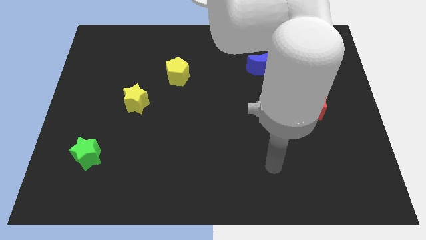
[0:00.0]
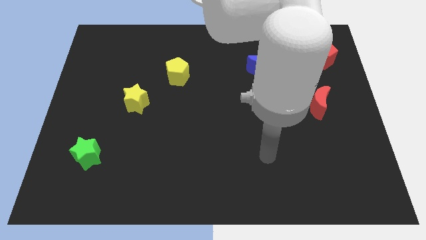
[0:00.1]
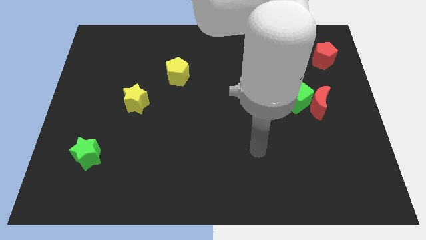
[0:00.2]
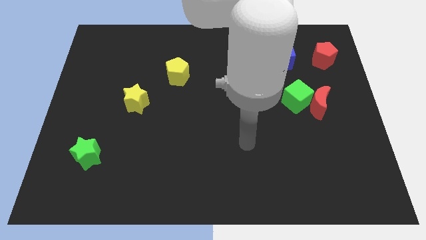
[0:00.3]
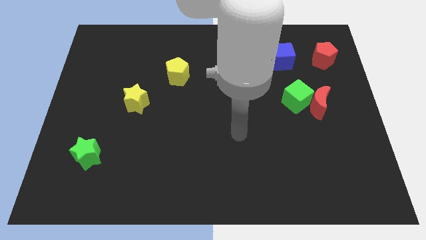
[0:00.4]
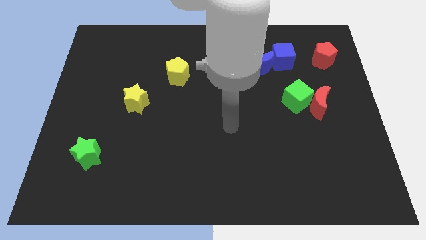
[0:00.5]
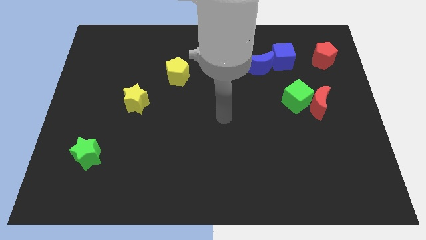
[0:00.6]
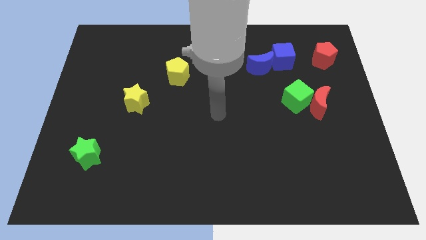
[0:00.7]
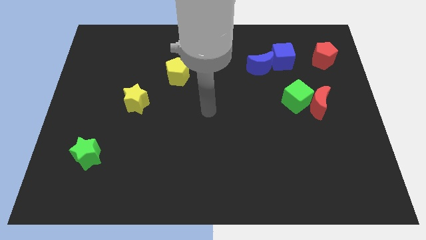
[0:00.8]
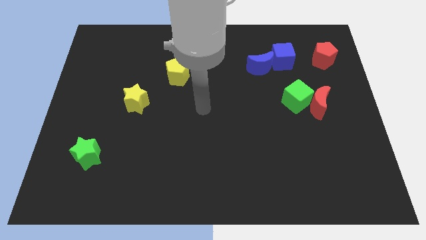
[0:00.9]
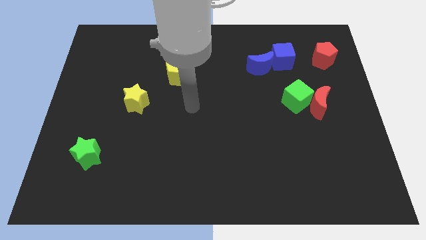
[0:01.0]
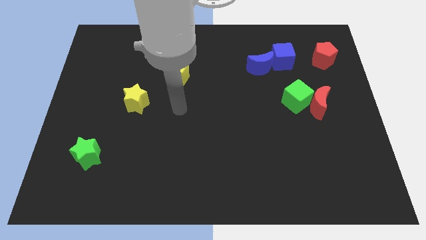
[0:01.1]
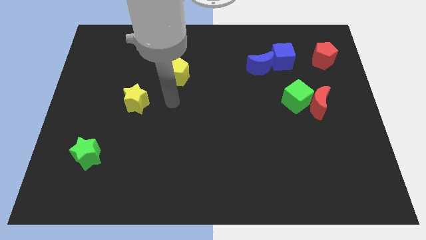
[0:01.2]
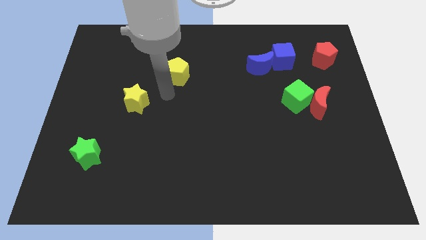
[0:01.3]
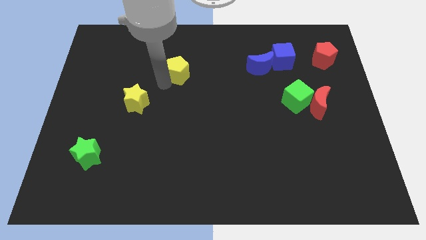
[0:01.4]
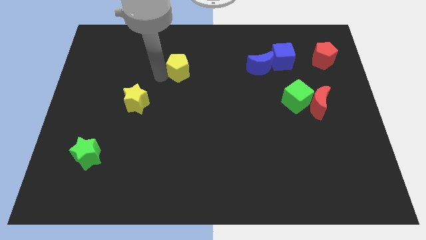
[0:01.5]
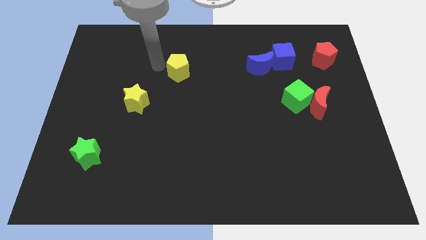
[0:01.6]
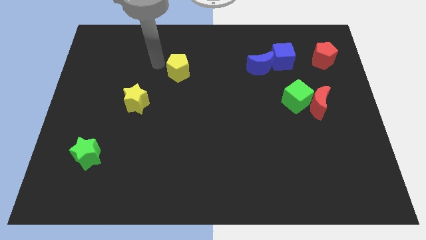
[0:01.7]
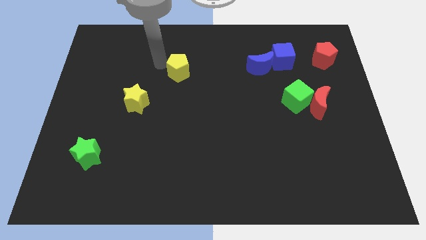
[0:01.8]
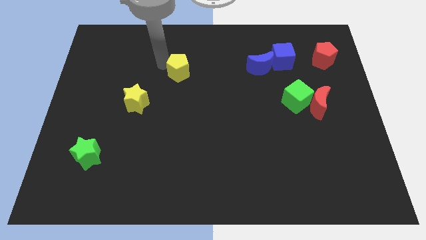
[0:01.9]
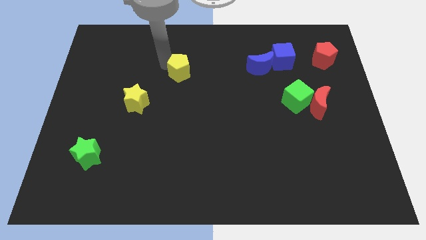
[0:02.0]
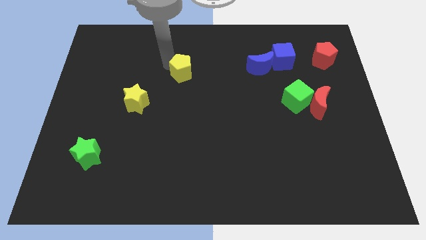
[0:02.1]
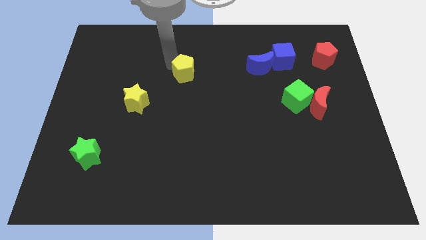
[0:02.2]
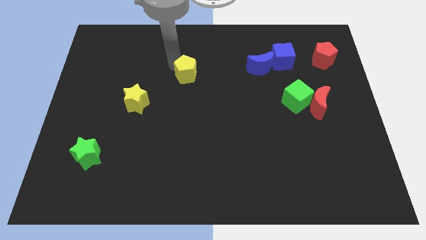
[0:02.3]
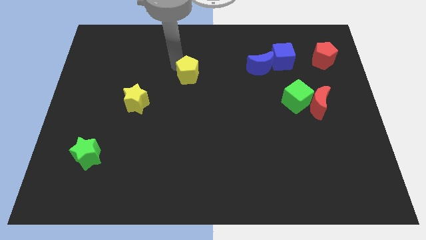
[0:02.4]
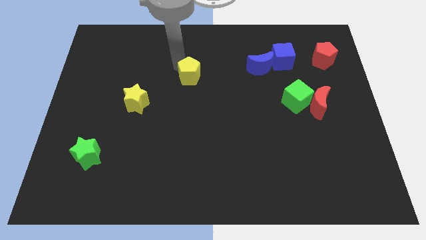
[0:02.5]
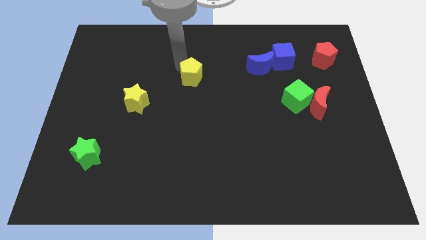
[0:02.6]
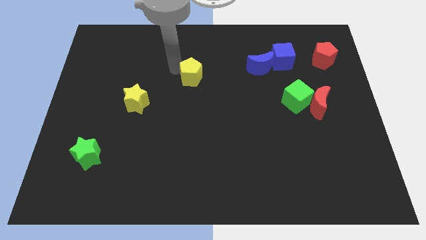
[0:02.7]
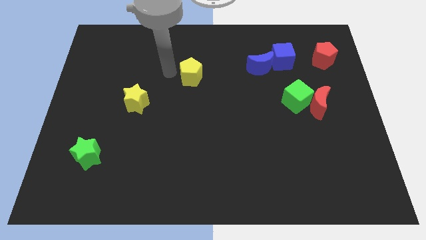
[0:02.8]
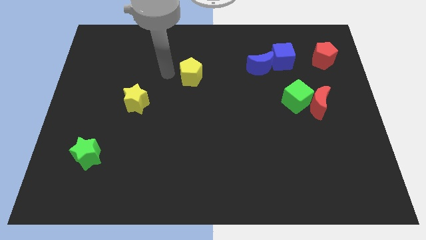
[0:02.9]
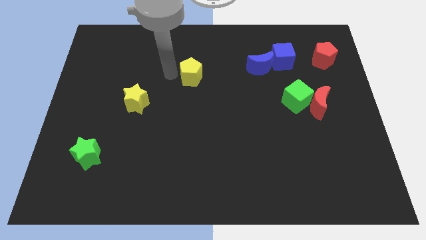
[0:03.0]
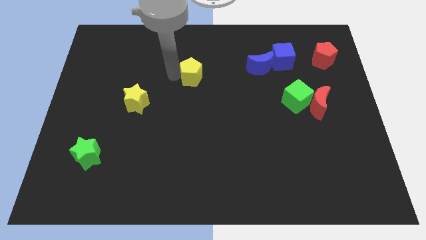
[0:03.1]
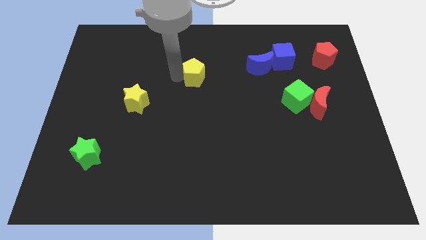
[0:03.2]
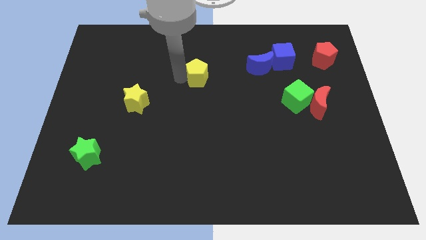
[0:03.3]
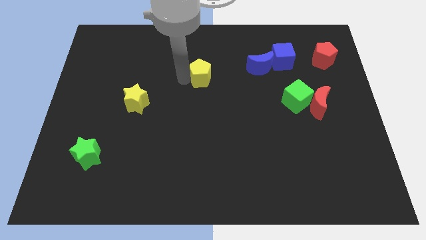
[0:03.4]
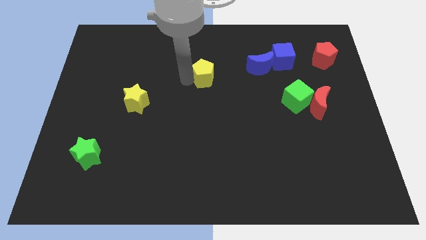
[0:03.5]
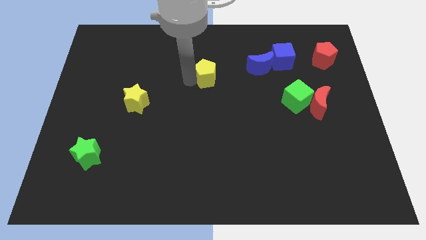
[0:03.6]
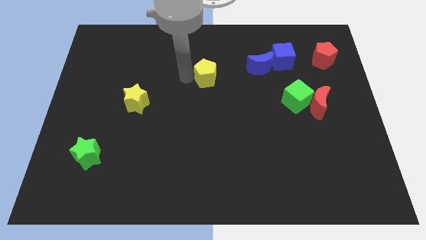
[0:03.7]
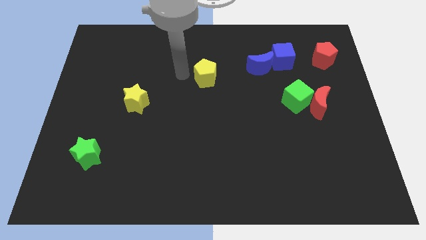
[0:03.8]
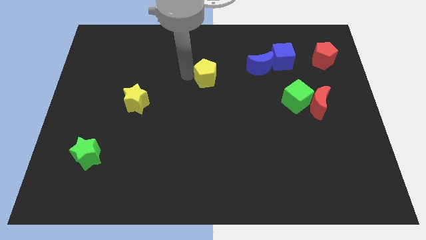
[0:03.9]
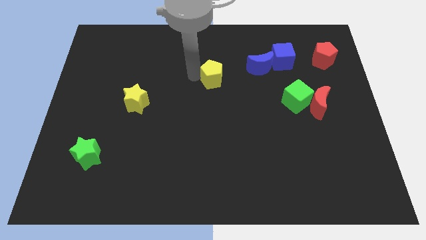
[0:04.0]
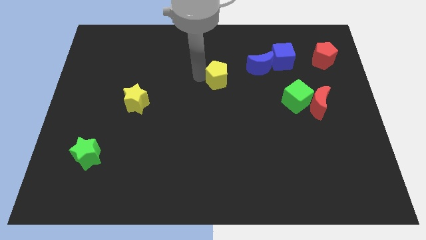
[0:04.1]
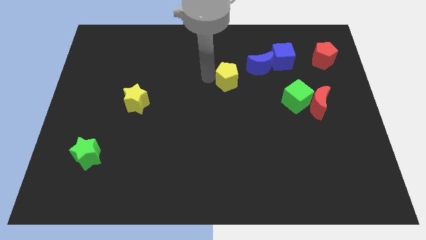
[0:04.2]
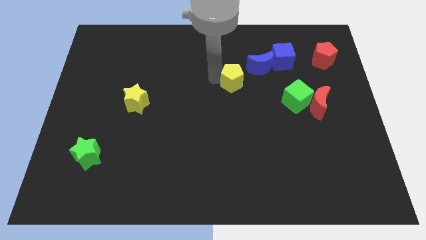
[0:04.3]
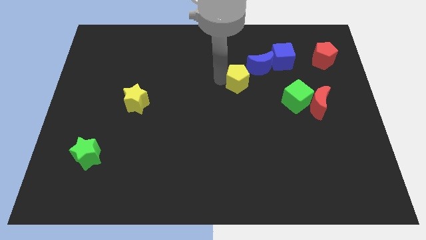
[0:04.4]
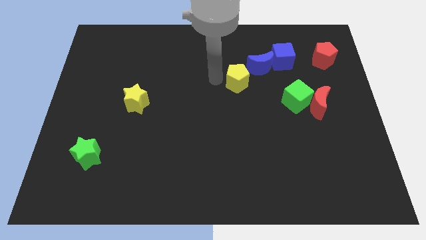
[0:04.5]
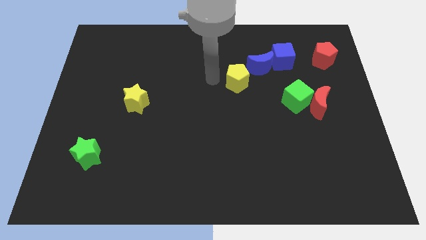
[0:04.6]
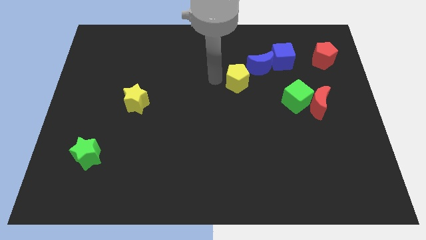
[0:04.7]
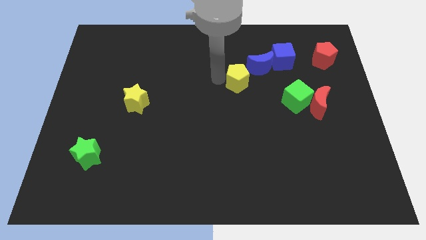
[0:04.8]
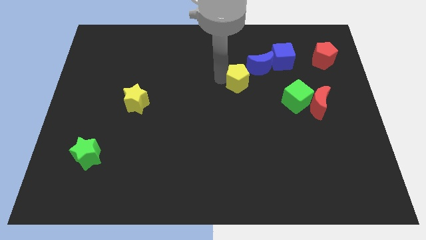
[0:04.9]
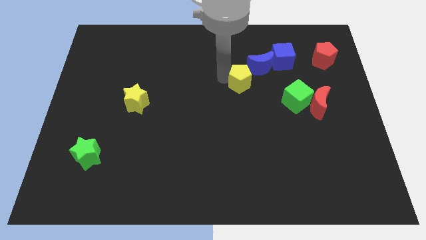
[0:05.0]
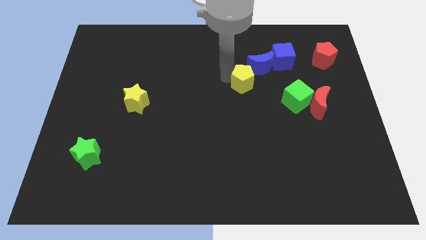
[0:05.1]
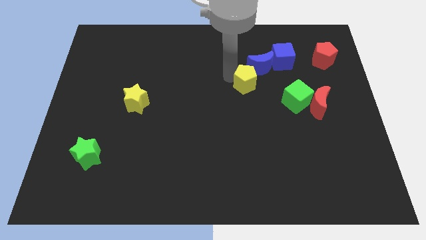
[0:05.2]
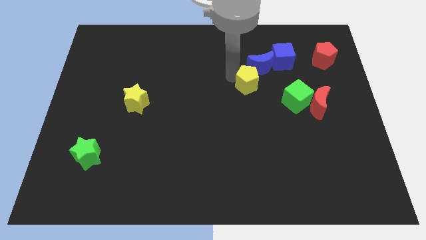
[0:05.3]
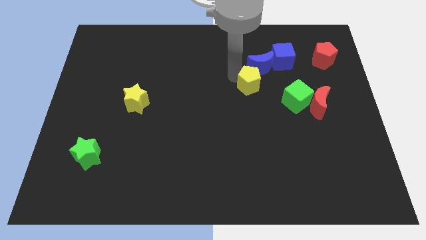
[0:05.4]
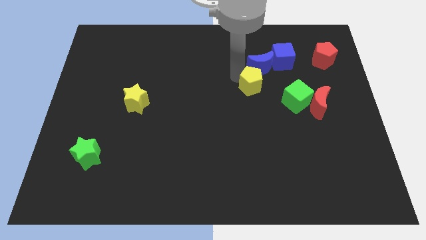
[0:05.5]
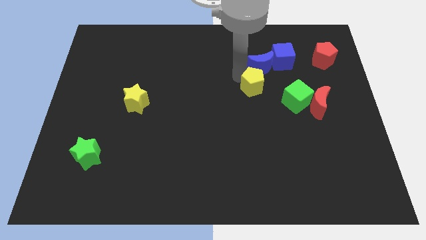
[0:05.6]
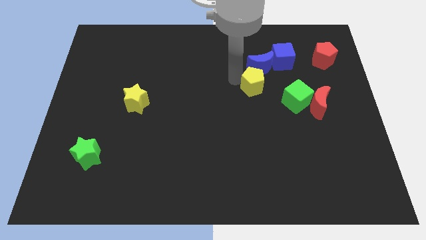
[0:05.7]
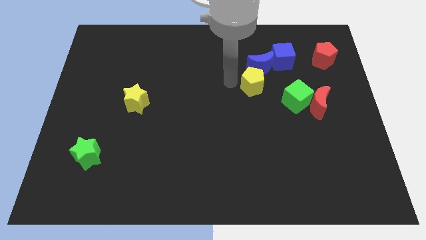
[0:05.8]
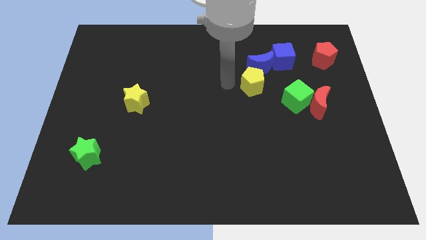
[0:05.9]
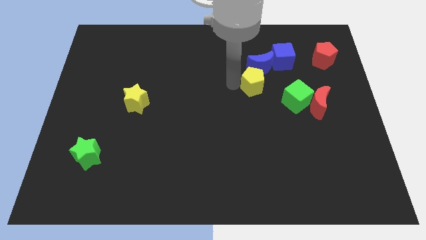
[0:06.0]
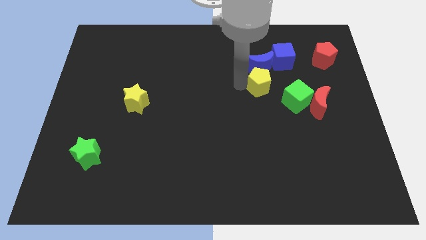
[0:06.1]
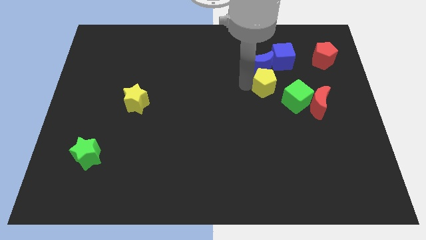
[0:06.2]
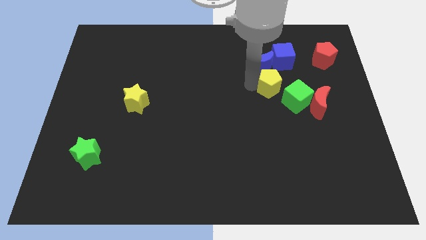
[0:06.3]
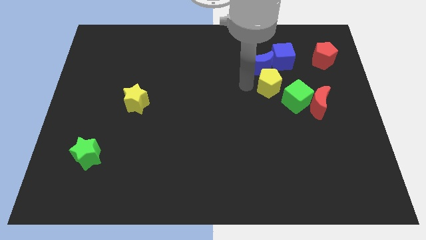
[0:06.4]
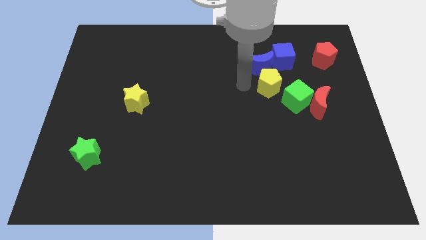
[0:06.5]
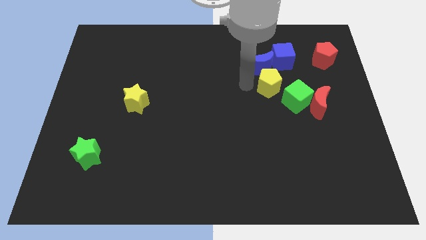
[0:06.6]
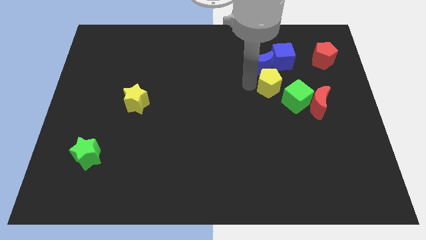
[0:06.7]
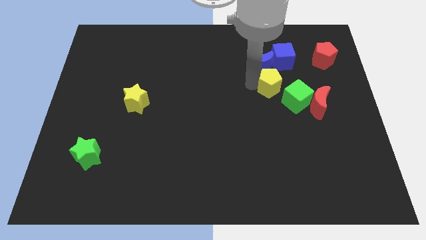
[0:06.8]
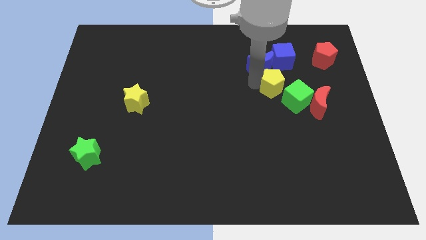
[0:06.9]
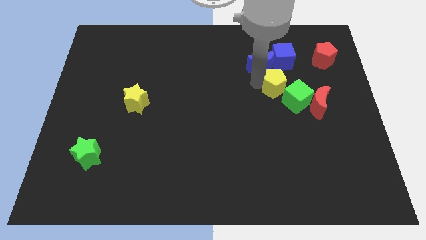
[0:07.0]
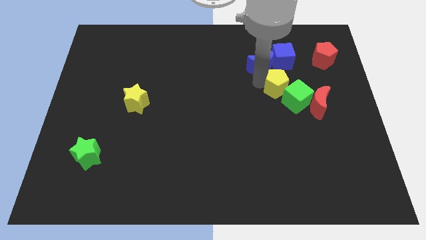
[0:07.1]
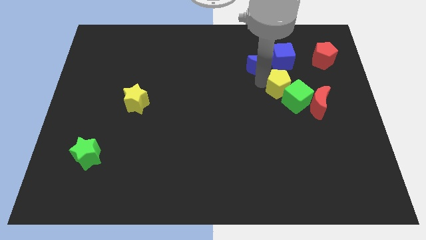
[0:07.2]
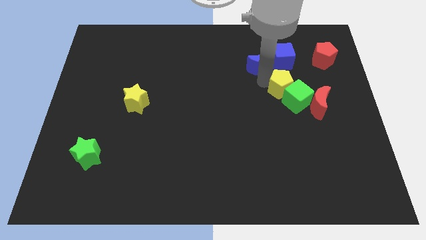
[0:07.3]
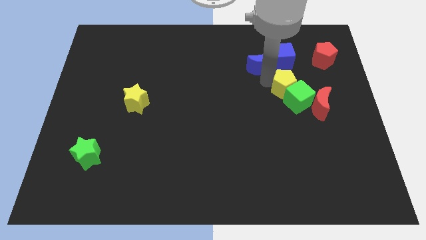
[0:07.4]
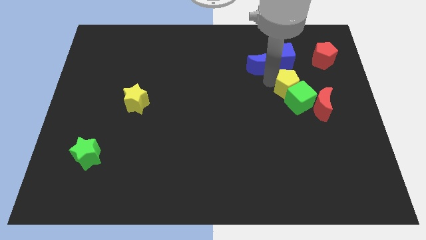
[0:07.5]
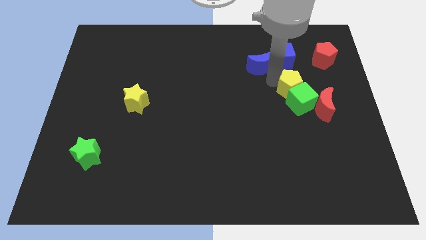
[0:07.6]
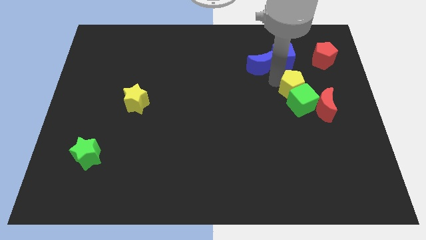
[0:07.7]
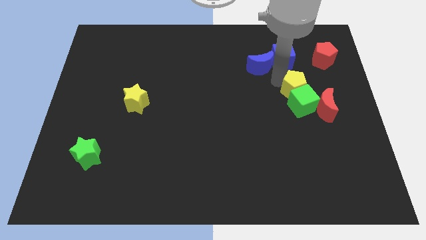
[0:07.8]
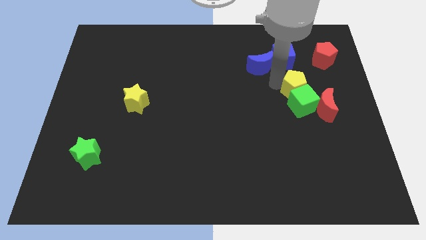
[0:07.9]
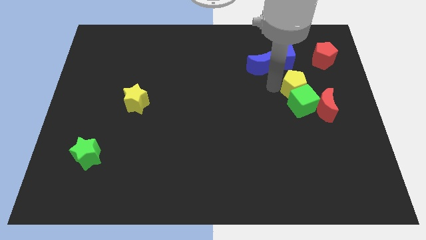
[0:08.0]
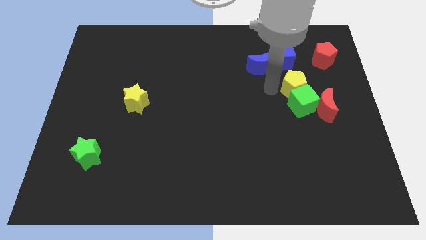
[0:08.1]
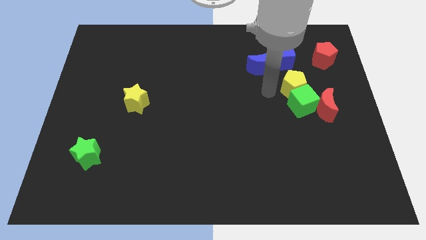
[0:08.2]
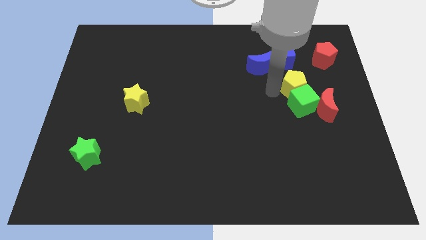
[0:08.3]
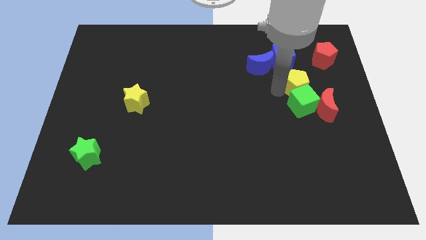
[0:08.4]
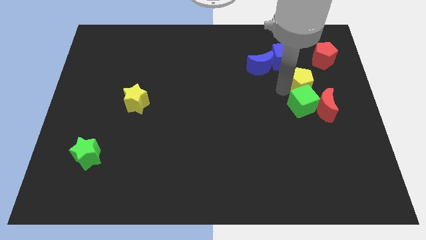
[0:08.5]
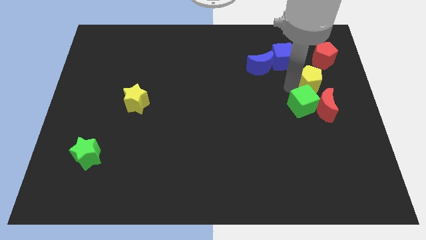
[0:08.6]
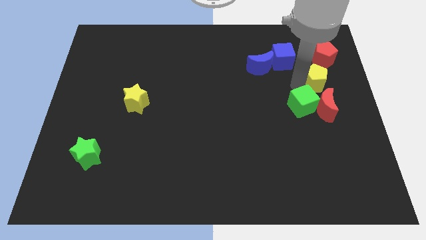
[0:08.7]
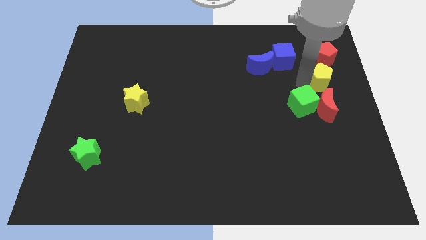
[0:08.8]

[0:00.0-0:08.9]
slide the yellow pentagon to the center right
